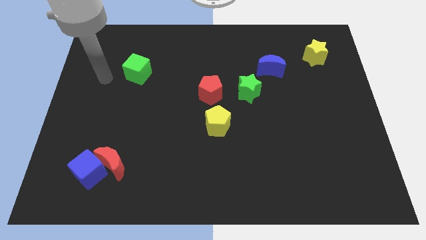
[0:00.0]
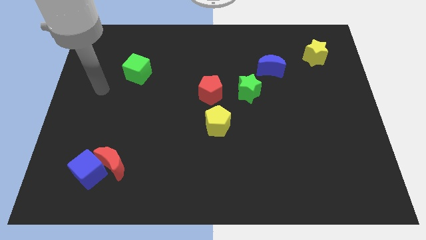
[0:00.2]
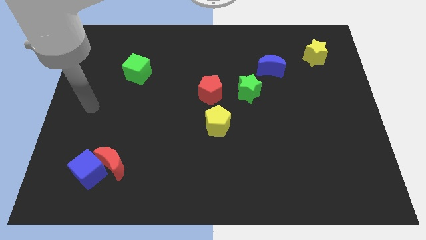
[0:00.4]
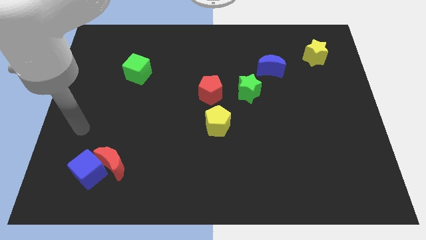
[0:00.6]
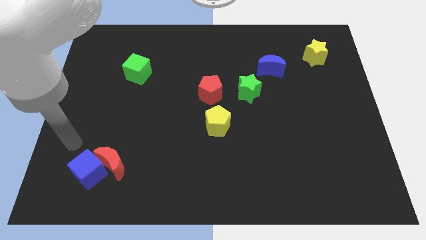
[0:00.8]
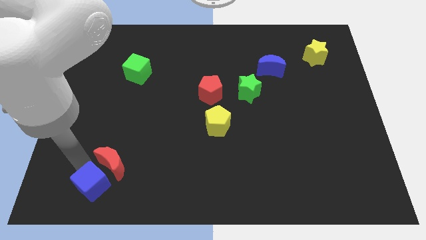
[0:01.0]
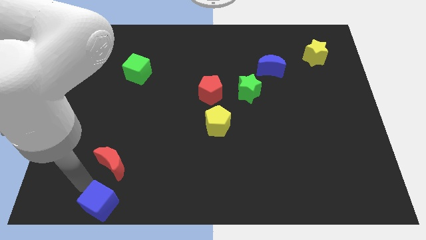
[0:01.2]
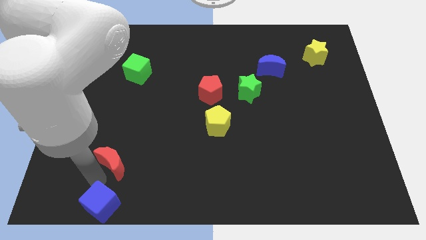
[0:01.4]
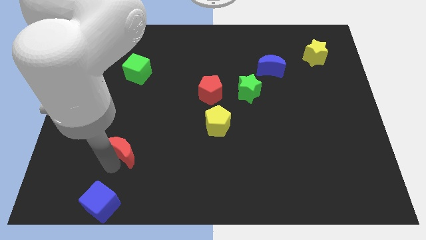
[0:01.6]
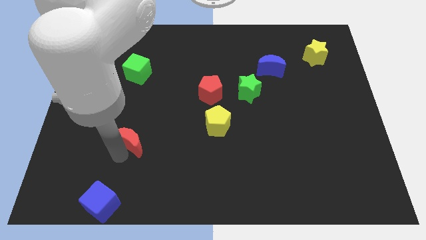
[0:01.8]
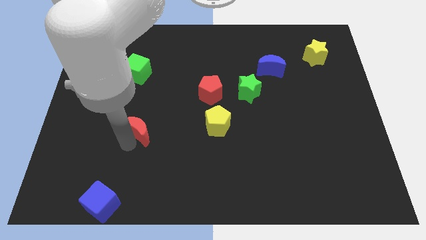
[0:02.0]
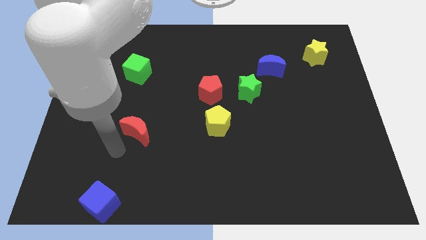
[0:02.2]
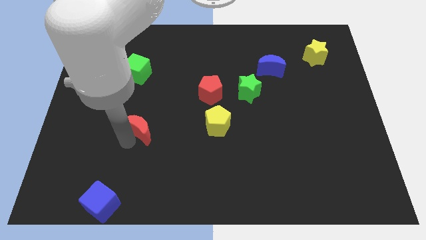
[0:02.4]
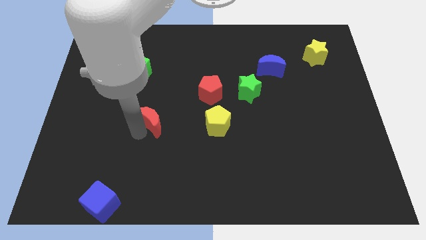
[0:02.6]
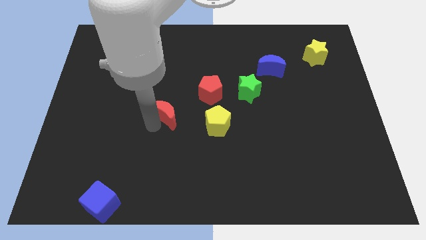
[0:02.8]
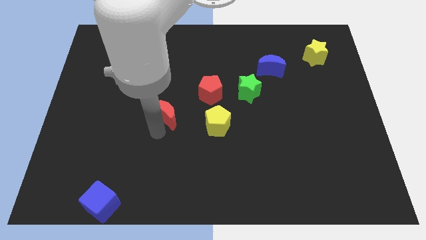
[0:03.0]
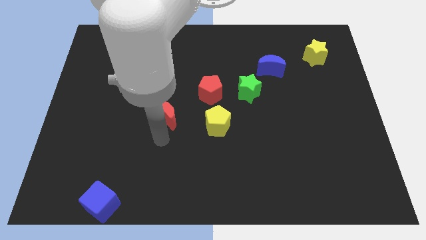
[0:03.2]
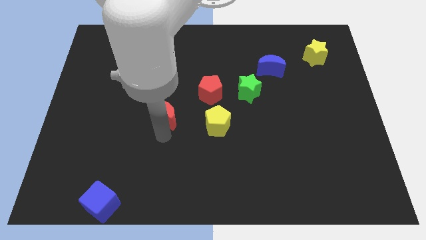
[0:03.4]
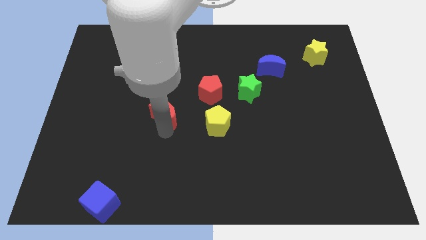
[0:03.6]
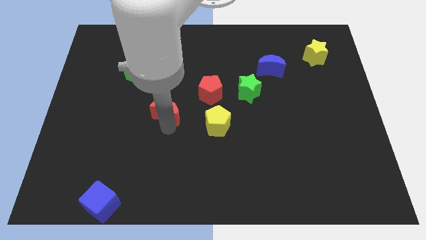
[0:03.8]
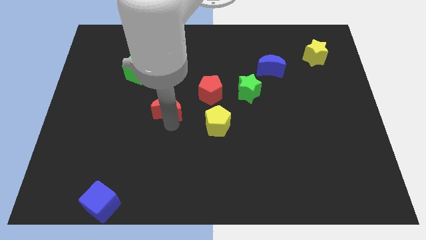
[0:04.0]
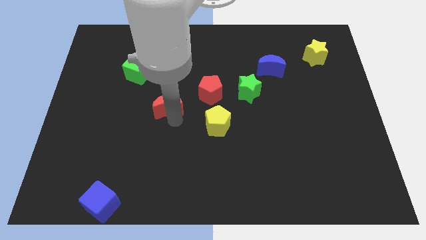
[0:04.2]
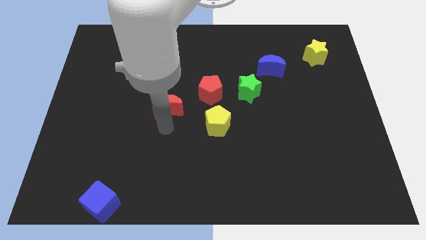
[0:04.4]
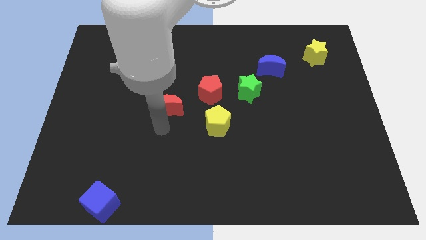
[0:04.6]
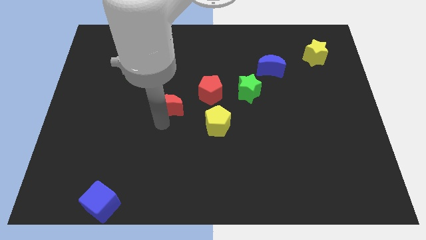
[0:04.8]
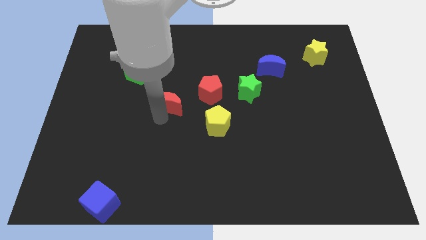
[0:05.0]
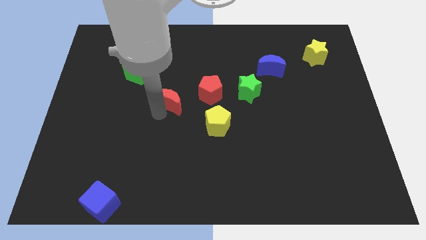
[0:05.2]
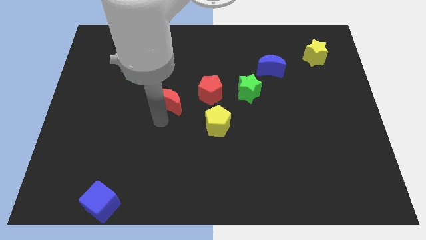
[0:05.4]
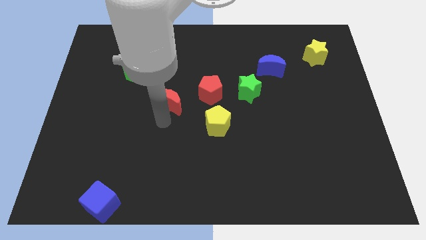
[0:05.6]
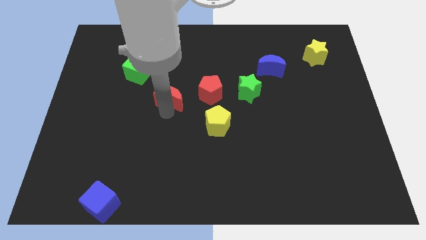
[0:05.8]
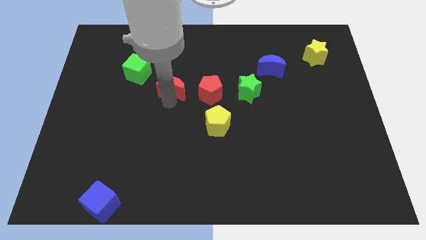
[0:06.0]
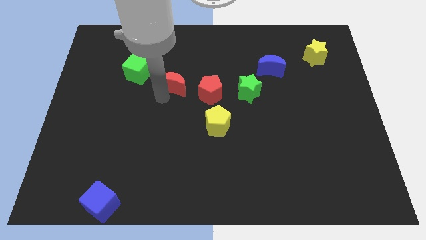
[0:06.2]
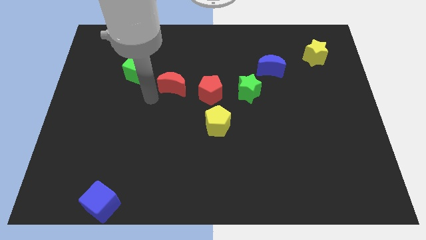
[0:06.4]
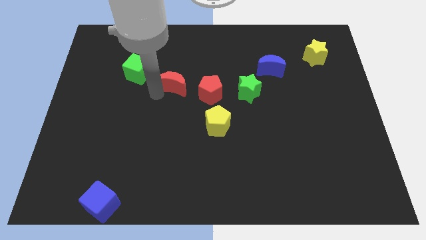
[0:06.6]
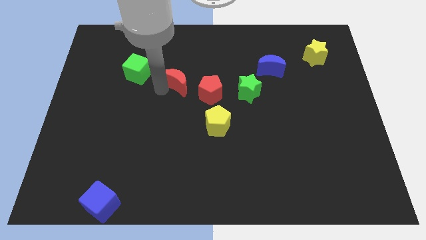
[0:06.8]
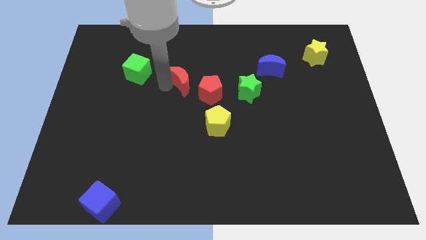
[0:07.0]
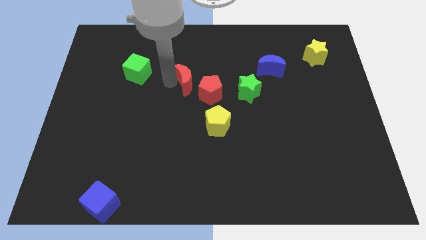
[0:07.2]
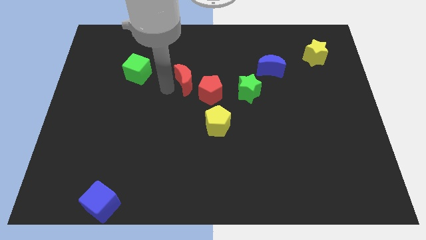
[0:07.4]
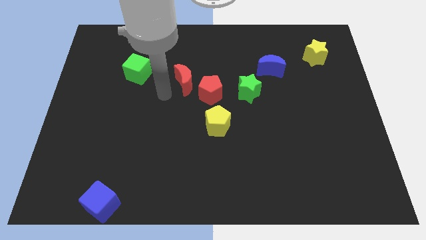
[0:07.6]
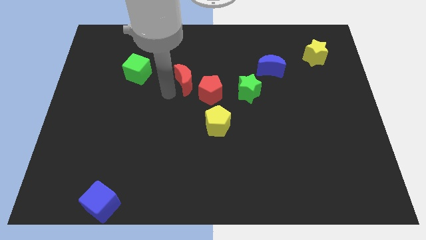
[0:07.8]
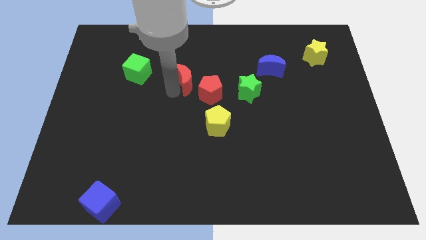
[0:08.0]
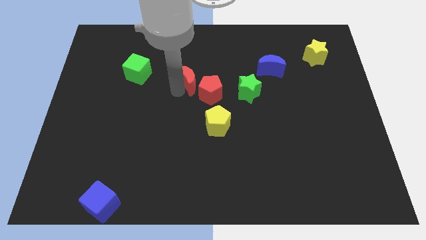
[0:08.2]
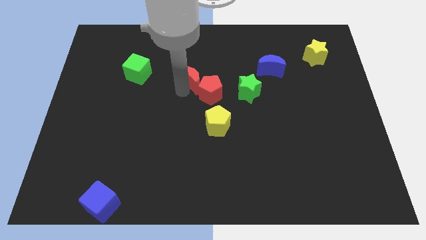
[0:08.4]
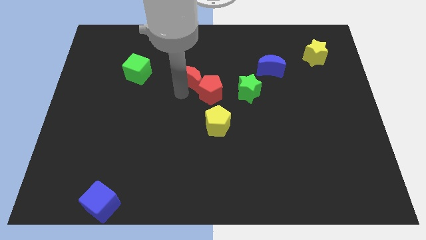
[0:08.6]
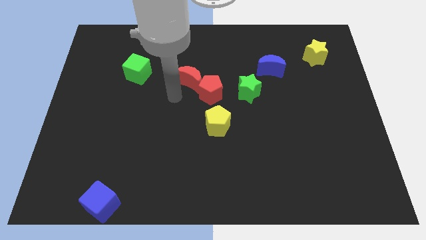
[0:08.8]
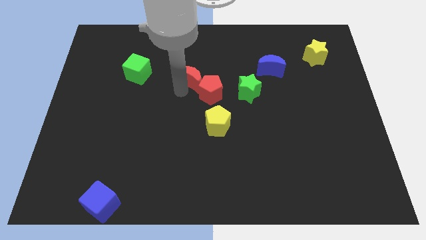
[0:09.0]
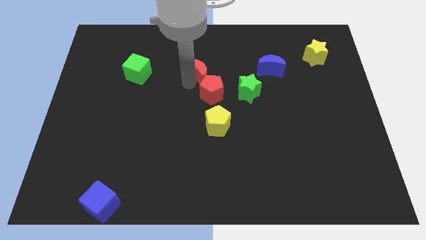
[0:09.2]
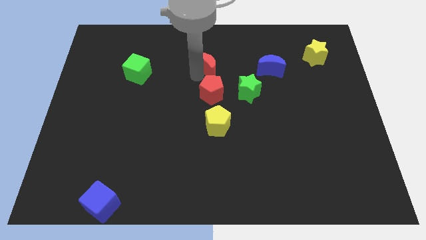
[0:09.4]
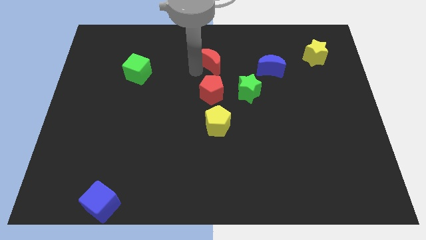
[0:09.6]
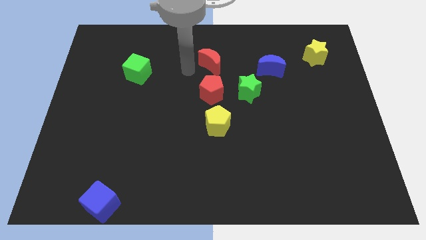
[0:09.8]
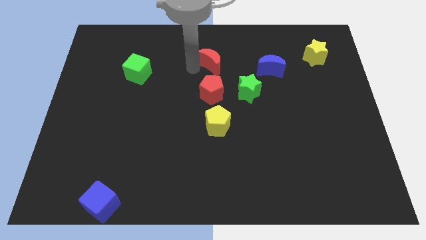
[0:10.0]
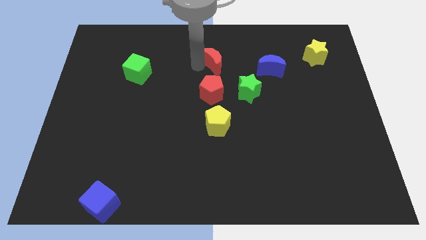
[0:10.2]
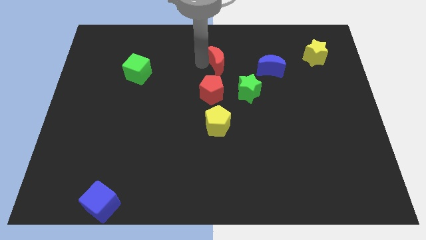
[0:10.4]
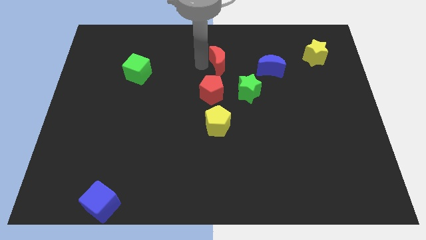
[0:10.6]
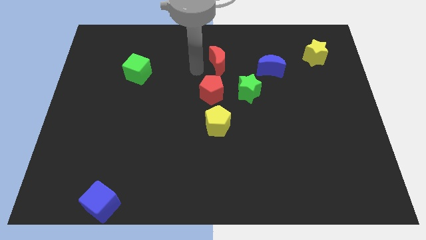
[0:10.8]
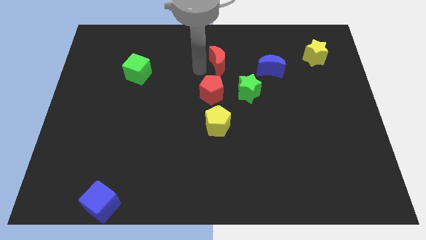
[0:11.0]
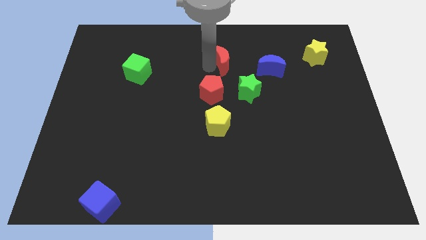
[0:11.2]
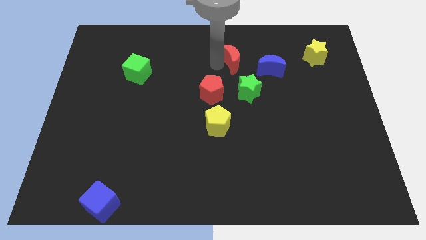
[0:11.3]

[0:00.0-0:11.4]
slide the red moon diagonally up and to the left of the blue moon

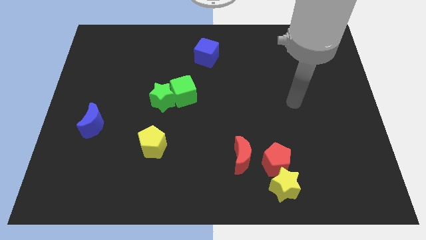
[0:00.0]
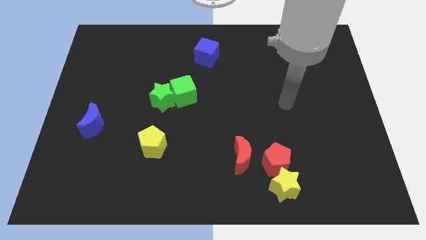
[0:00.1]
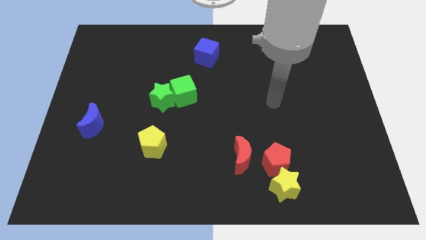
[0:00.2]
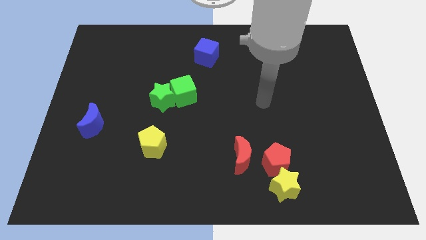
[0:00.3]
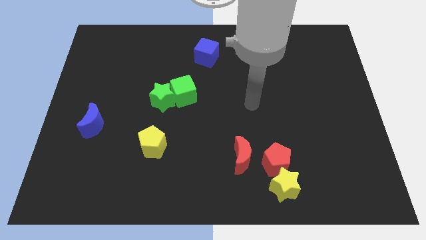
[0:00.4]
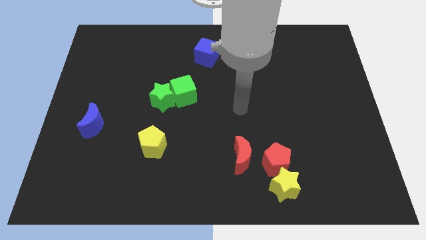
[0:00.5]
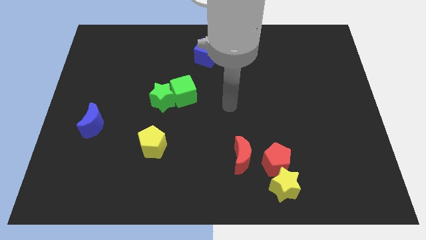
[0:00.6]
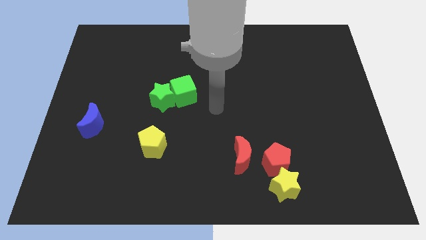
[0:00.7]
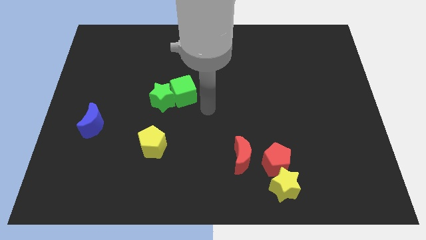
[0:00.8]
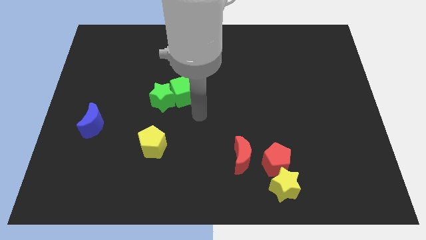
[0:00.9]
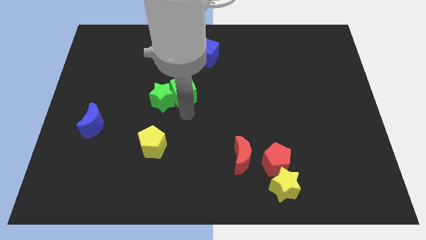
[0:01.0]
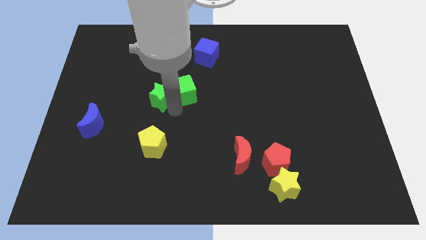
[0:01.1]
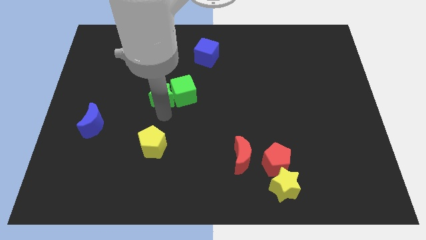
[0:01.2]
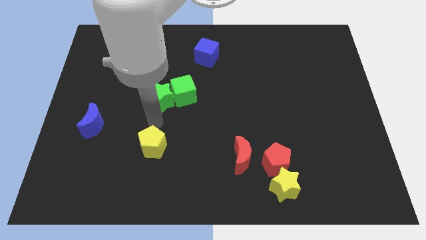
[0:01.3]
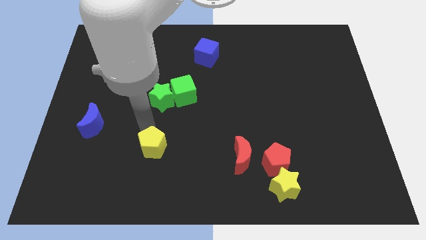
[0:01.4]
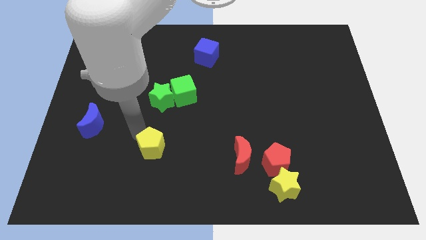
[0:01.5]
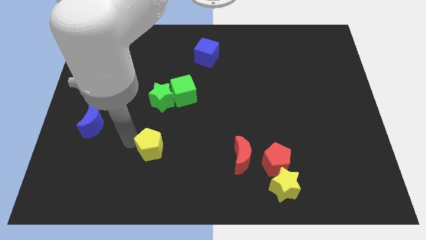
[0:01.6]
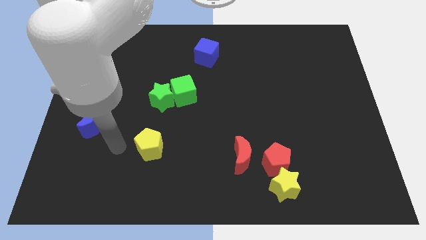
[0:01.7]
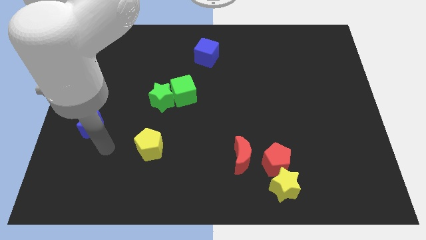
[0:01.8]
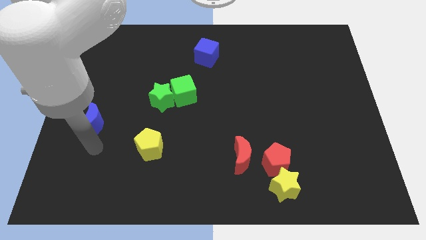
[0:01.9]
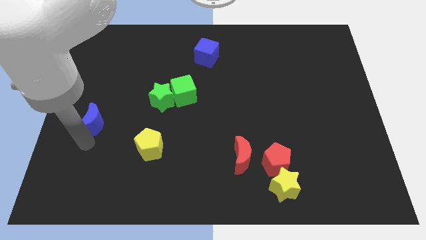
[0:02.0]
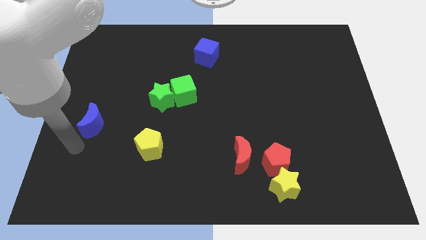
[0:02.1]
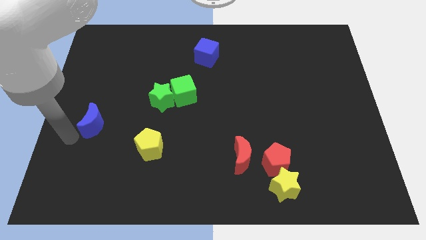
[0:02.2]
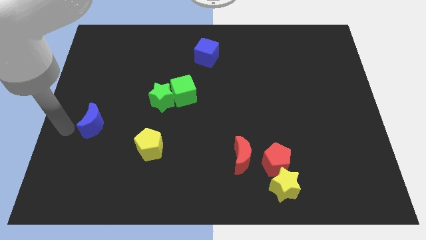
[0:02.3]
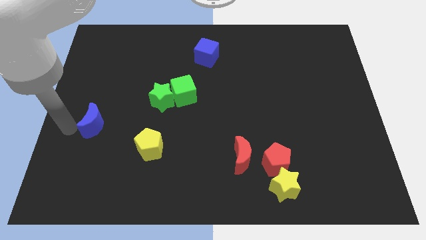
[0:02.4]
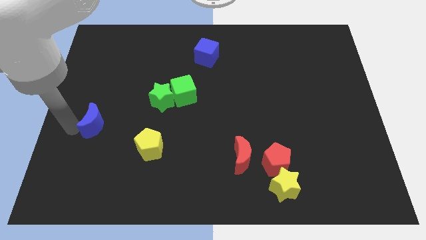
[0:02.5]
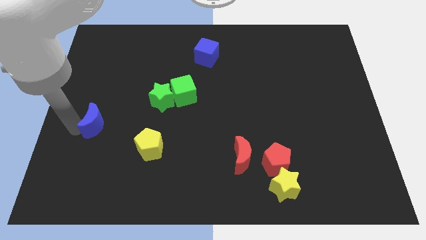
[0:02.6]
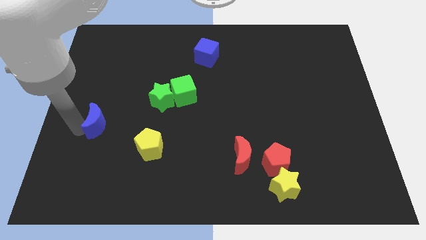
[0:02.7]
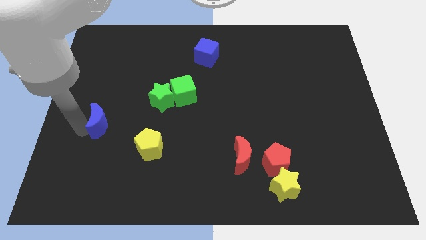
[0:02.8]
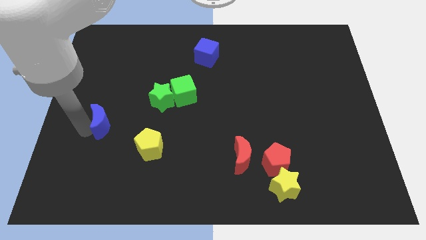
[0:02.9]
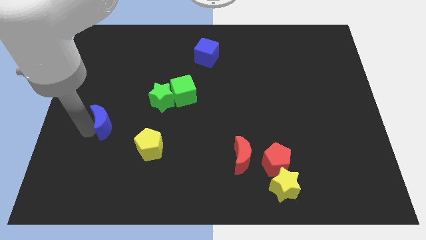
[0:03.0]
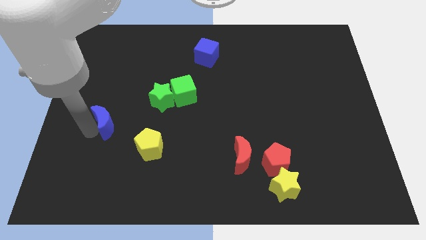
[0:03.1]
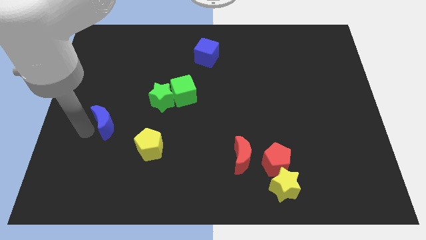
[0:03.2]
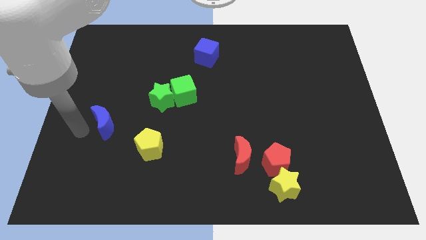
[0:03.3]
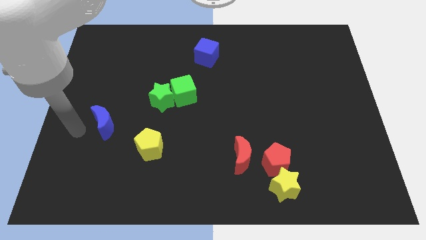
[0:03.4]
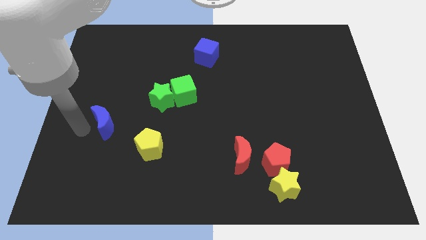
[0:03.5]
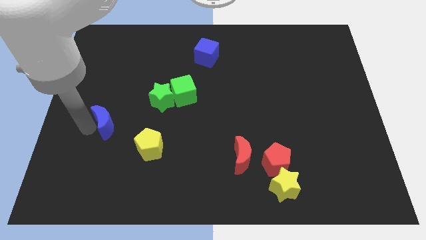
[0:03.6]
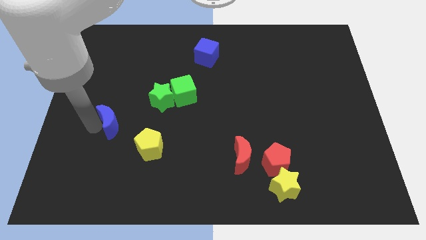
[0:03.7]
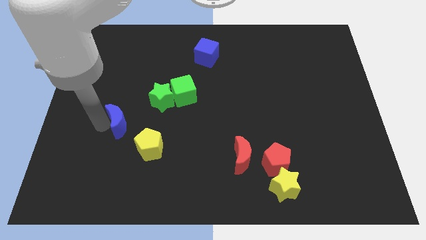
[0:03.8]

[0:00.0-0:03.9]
move the blue moon to the bottom left side of the green star
